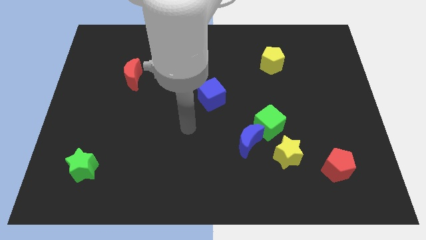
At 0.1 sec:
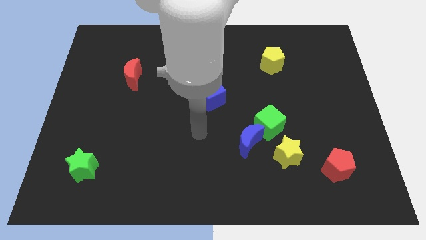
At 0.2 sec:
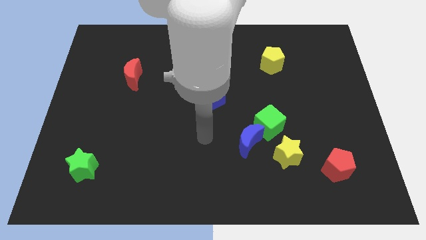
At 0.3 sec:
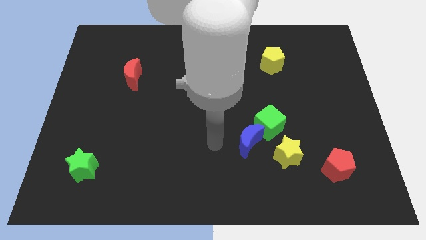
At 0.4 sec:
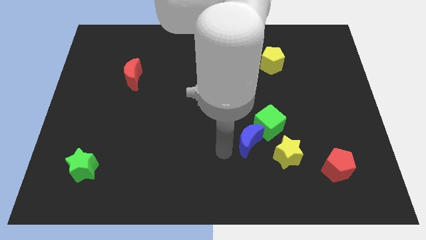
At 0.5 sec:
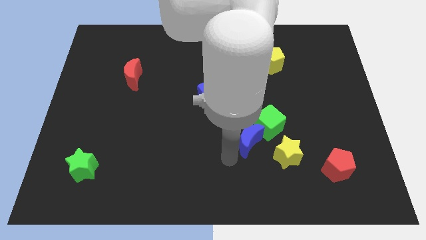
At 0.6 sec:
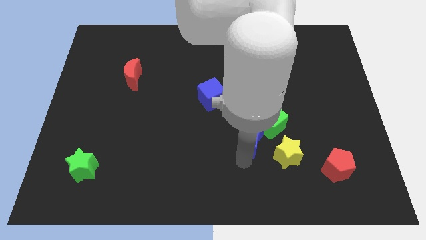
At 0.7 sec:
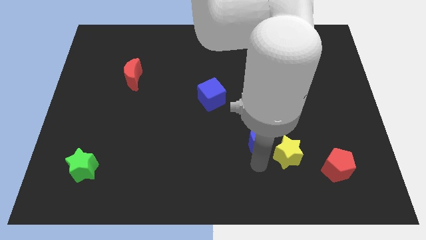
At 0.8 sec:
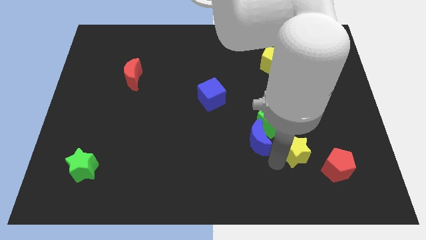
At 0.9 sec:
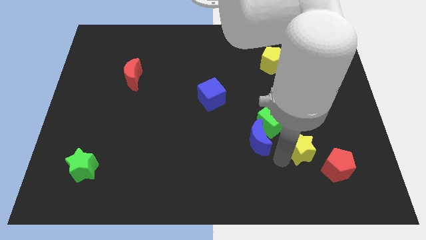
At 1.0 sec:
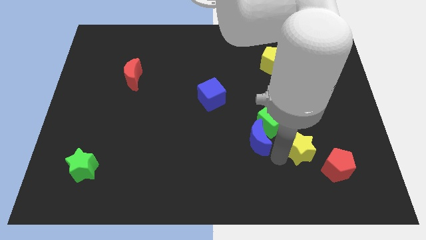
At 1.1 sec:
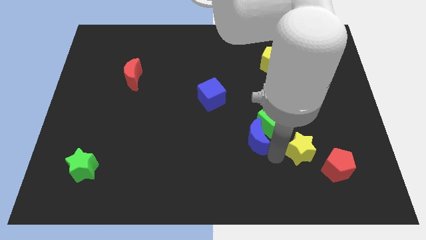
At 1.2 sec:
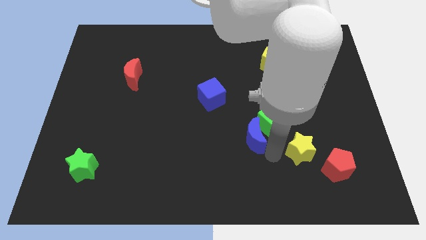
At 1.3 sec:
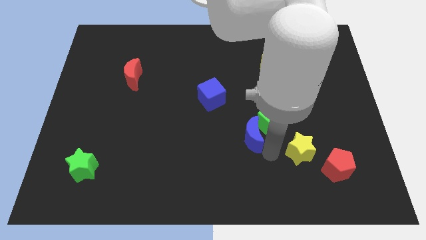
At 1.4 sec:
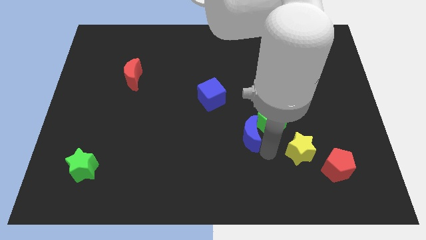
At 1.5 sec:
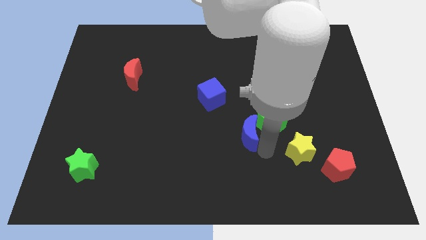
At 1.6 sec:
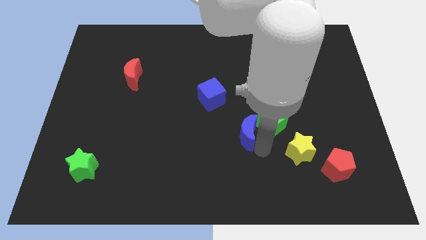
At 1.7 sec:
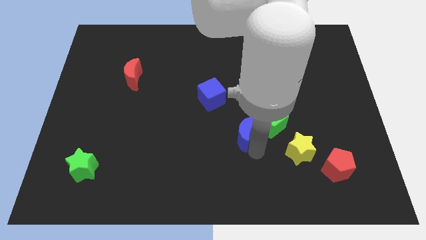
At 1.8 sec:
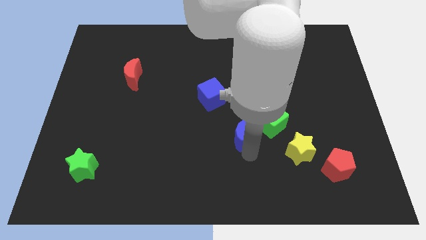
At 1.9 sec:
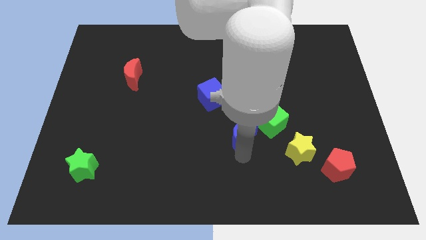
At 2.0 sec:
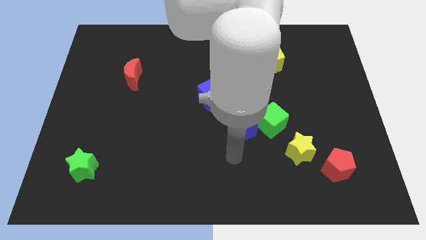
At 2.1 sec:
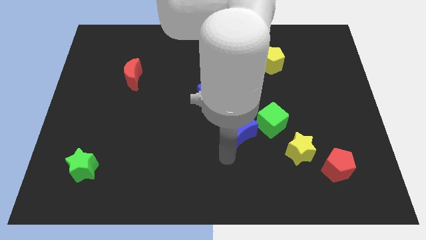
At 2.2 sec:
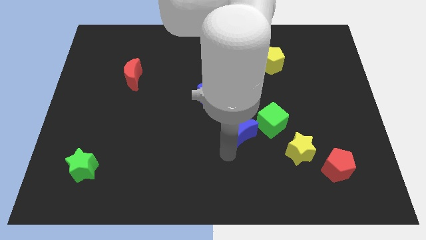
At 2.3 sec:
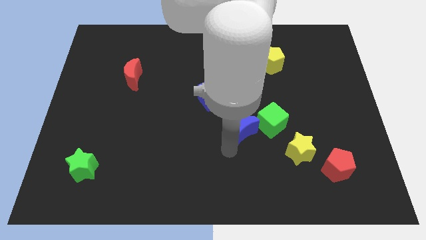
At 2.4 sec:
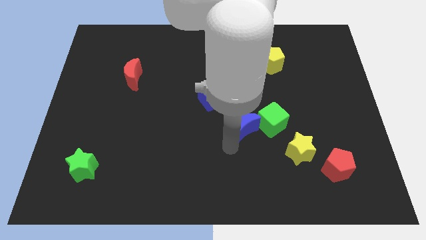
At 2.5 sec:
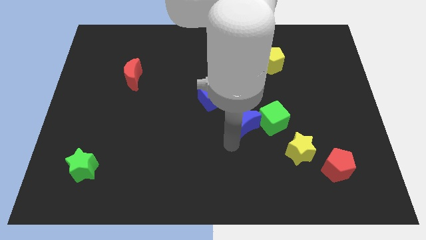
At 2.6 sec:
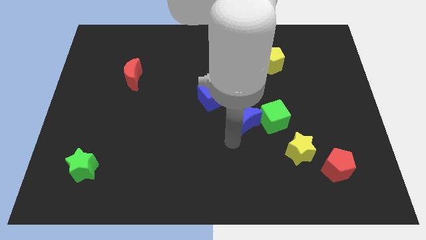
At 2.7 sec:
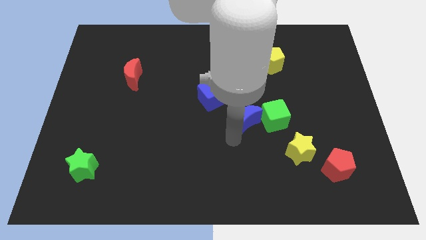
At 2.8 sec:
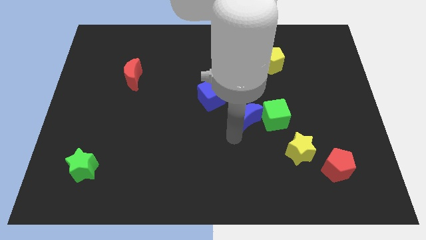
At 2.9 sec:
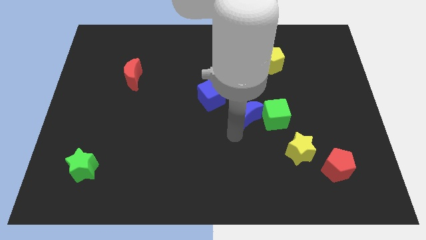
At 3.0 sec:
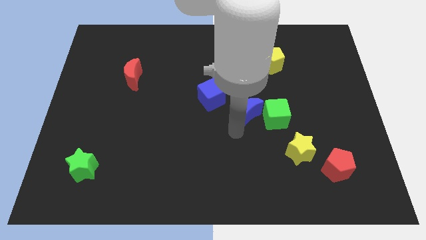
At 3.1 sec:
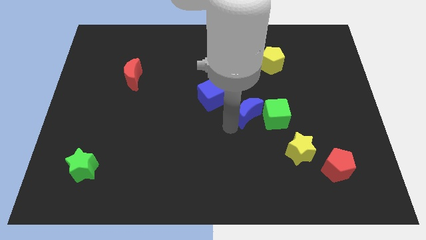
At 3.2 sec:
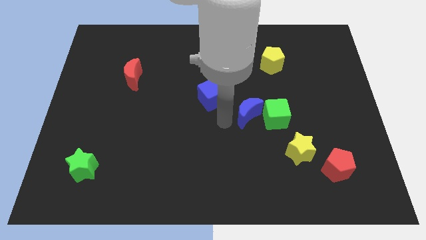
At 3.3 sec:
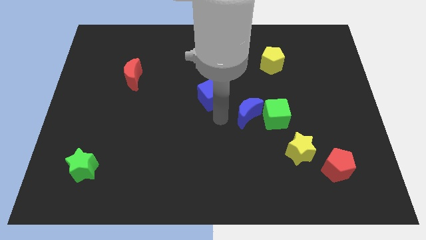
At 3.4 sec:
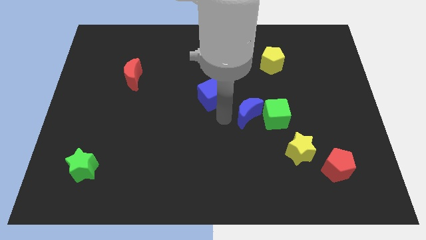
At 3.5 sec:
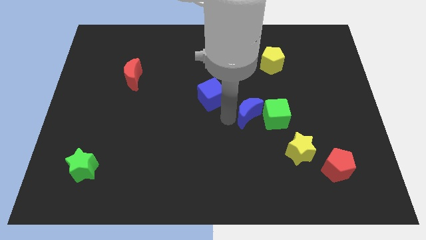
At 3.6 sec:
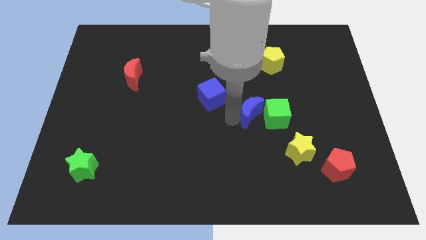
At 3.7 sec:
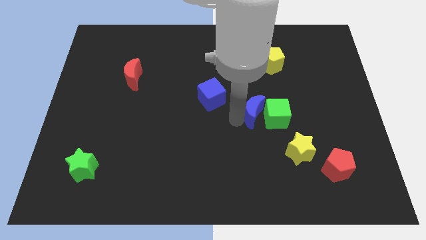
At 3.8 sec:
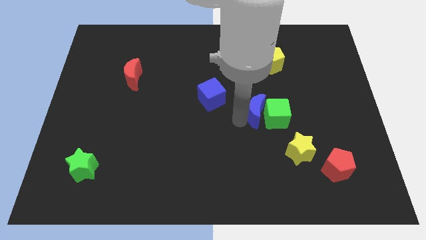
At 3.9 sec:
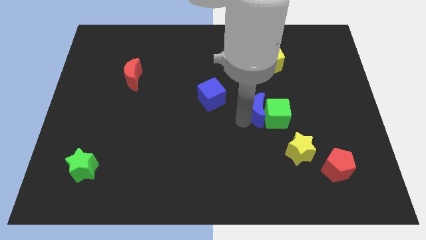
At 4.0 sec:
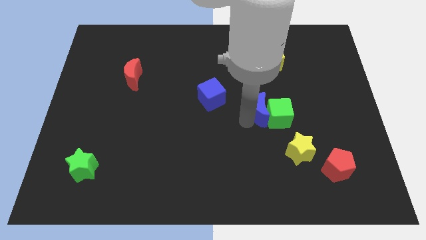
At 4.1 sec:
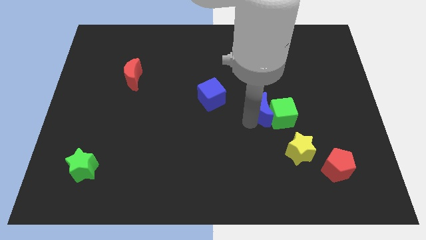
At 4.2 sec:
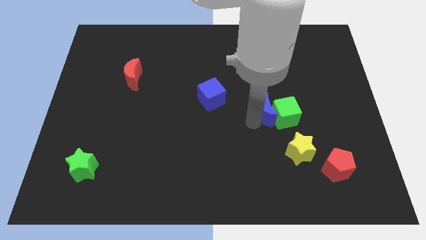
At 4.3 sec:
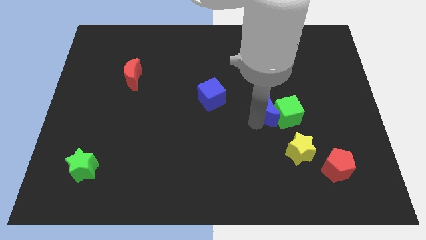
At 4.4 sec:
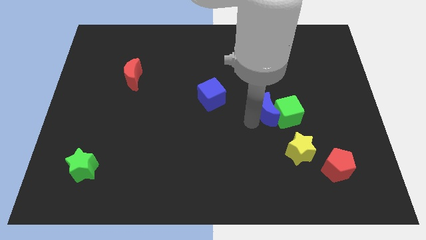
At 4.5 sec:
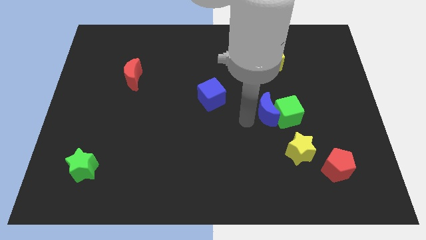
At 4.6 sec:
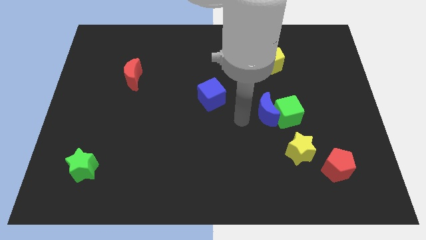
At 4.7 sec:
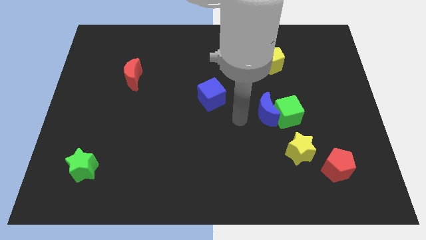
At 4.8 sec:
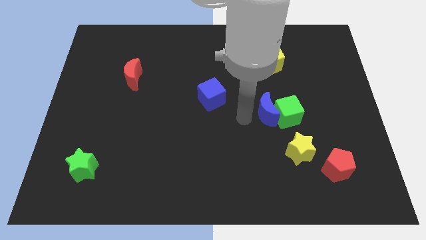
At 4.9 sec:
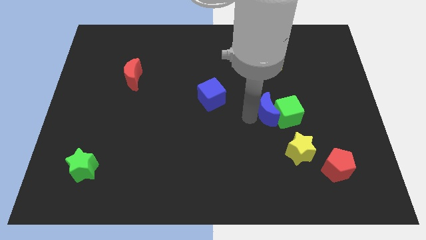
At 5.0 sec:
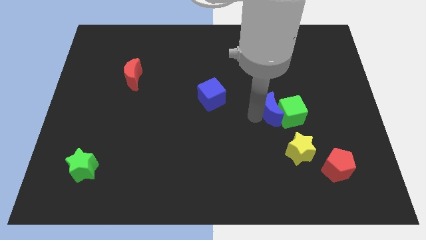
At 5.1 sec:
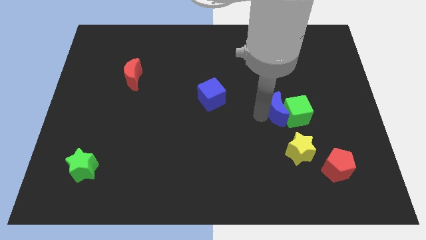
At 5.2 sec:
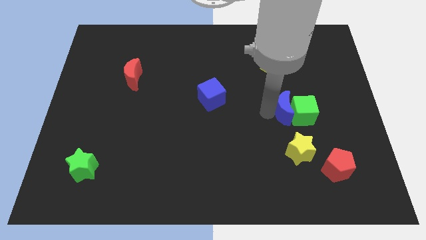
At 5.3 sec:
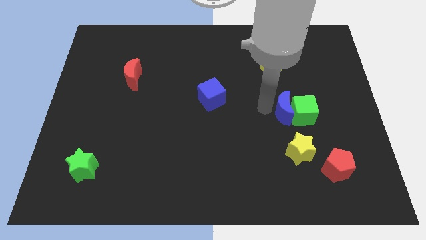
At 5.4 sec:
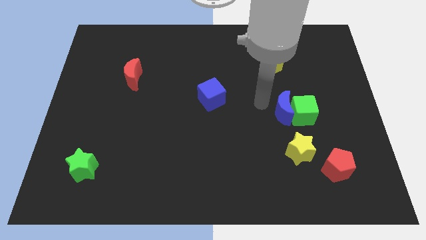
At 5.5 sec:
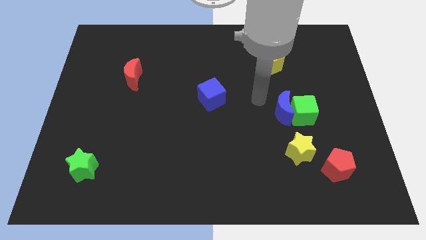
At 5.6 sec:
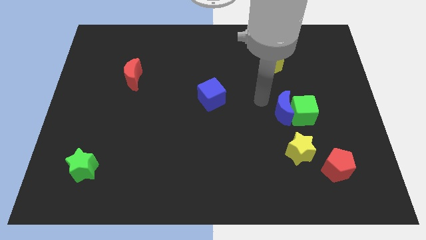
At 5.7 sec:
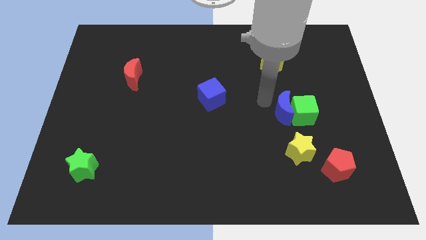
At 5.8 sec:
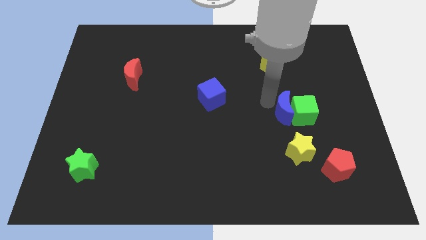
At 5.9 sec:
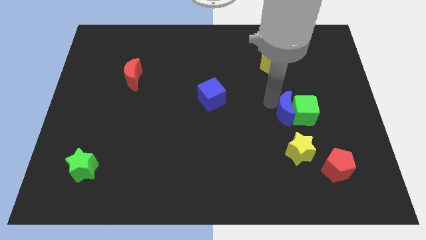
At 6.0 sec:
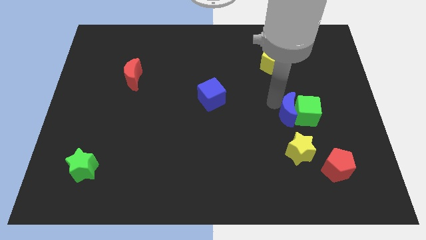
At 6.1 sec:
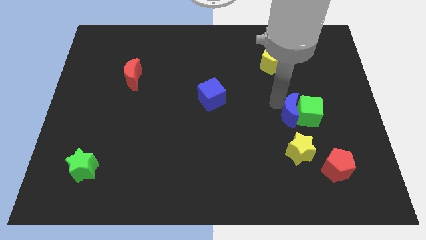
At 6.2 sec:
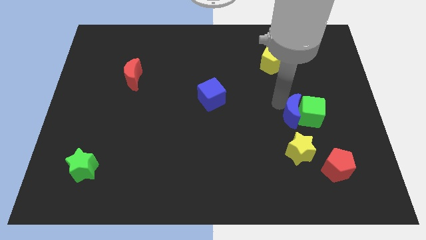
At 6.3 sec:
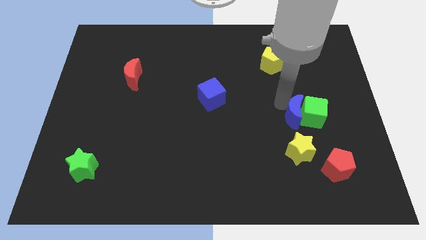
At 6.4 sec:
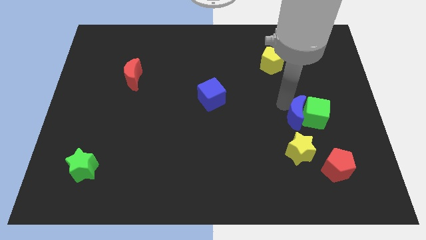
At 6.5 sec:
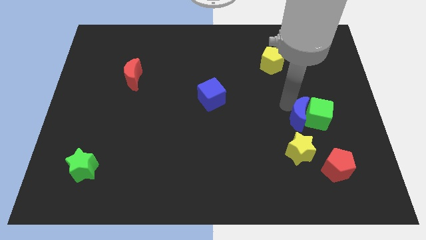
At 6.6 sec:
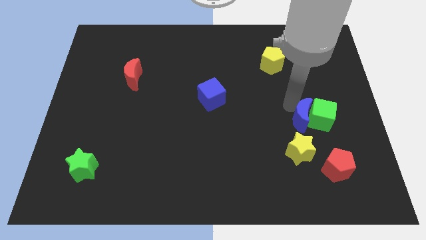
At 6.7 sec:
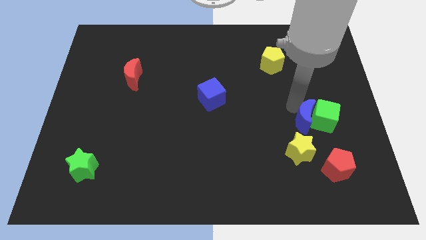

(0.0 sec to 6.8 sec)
slide the blue moon to the top side of the red pentagon
